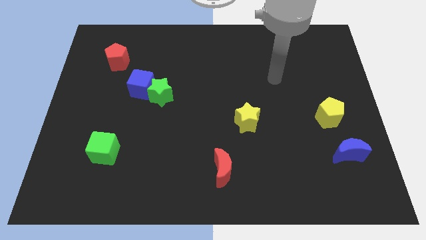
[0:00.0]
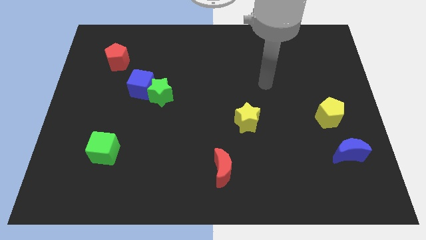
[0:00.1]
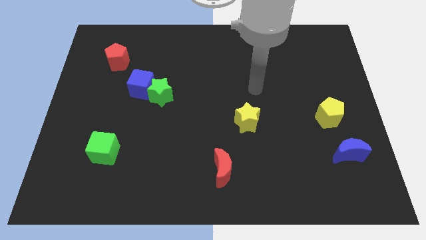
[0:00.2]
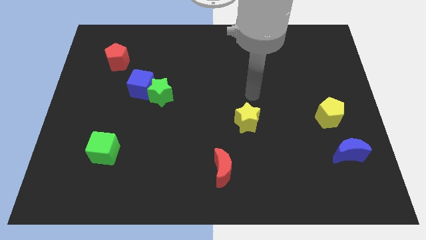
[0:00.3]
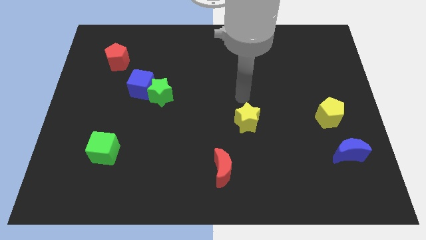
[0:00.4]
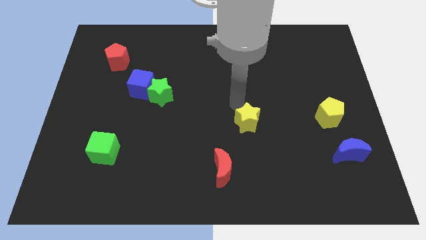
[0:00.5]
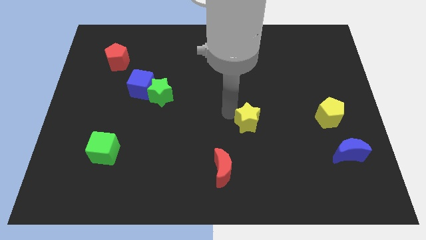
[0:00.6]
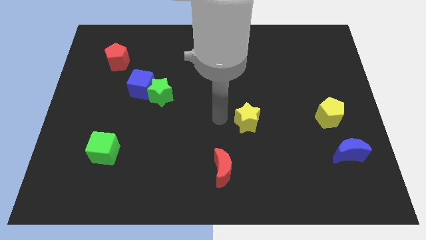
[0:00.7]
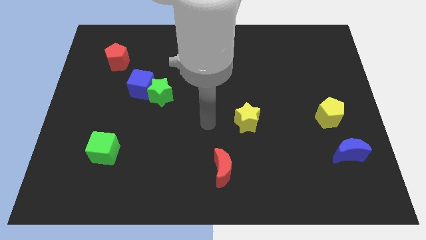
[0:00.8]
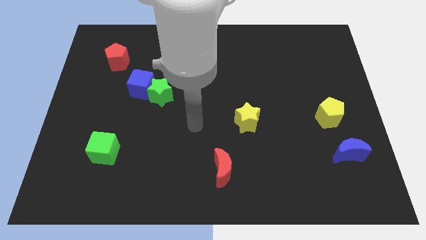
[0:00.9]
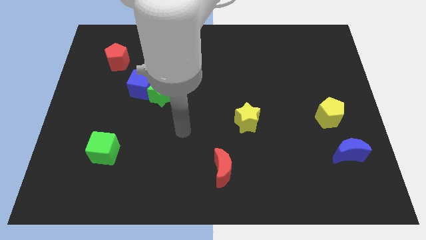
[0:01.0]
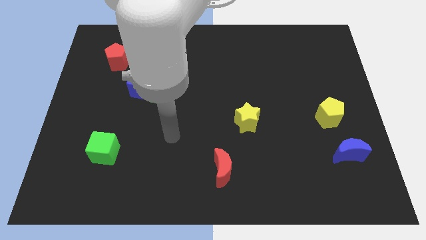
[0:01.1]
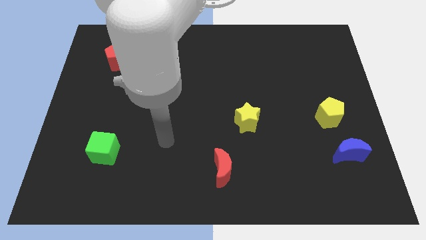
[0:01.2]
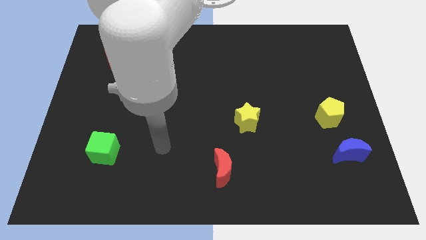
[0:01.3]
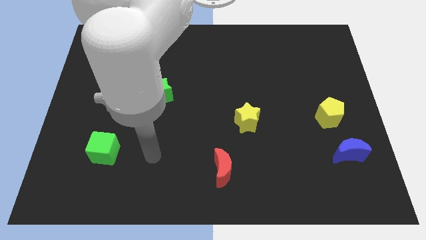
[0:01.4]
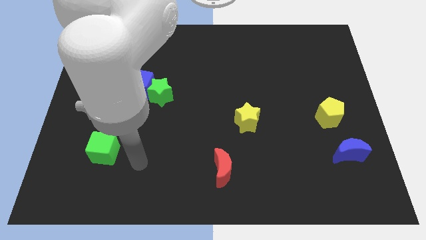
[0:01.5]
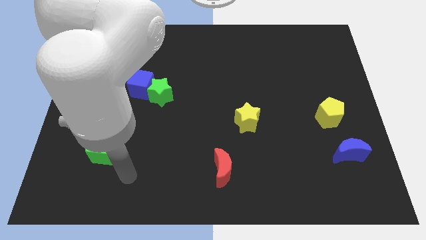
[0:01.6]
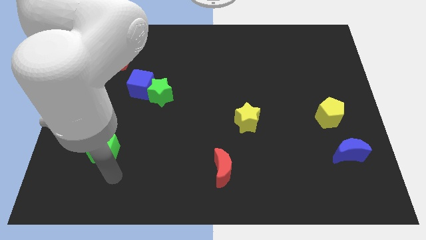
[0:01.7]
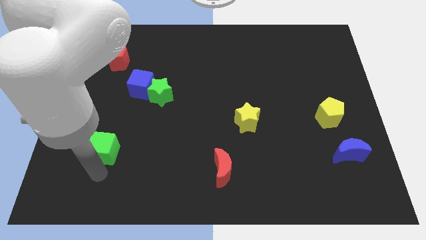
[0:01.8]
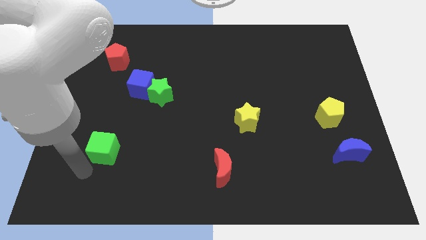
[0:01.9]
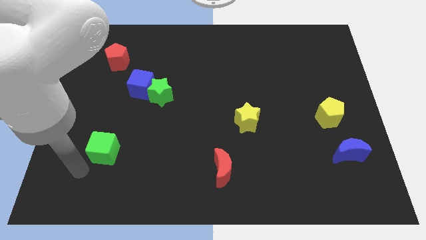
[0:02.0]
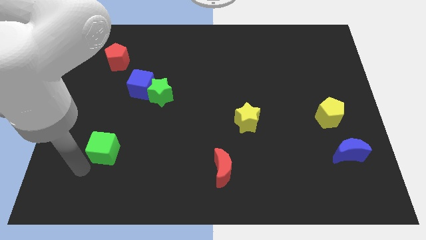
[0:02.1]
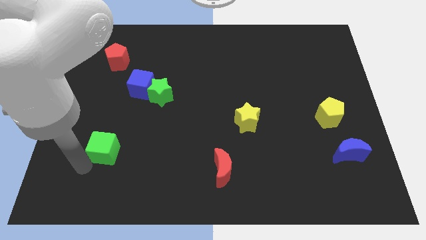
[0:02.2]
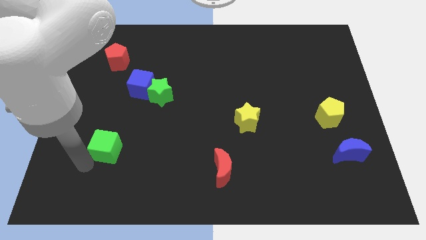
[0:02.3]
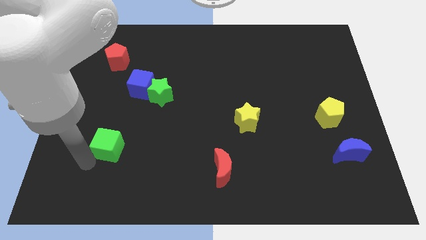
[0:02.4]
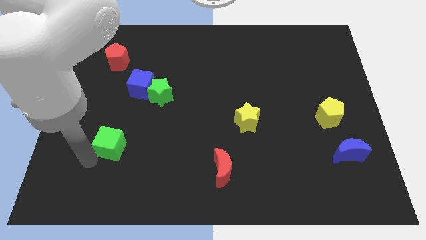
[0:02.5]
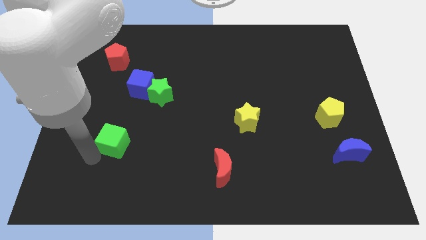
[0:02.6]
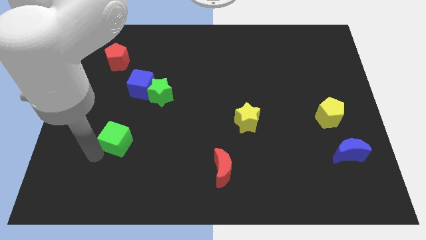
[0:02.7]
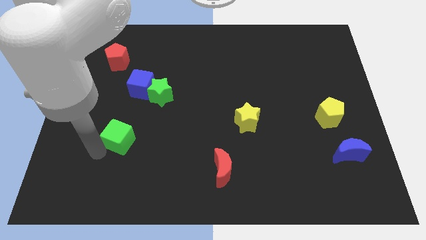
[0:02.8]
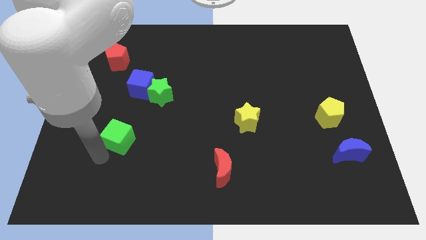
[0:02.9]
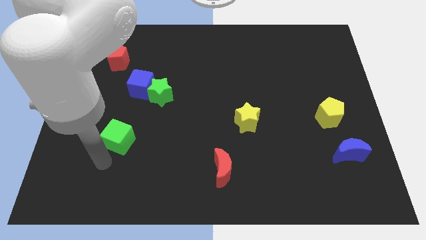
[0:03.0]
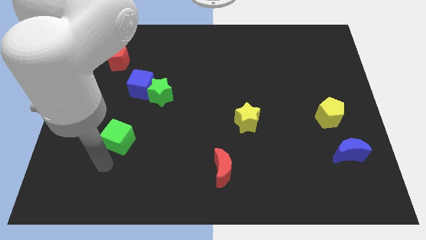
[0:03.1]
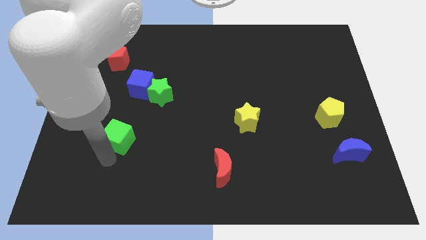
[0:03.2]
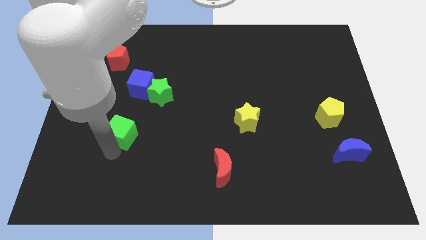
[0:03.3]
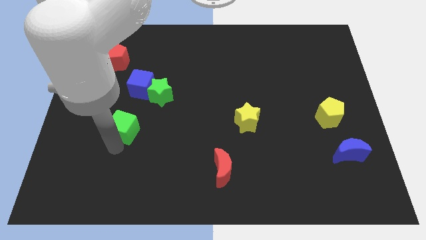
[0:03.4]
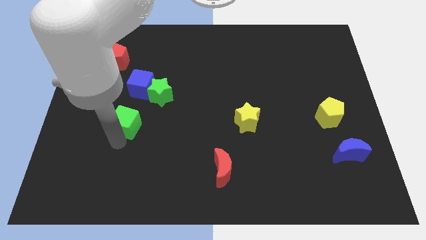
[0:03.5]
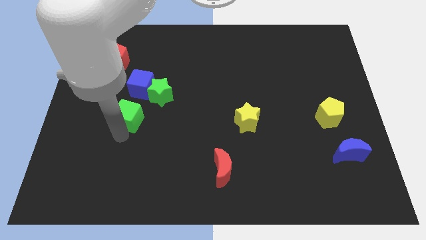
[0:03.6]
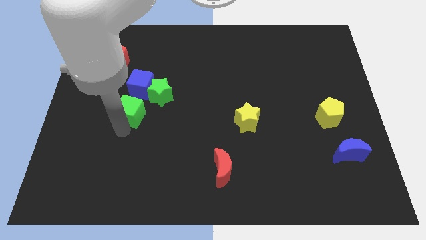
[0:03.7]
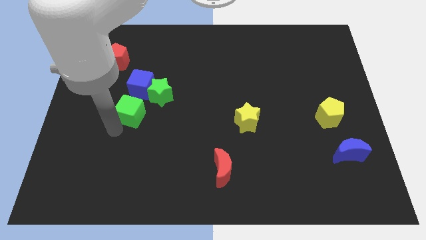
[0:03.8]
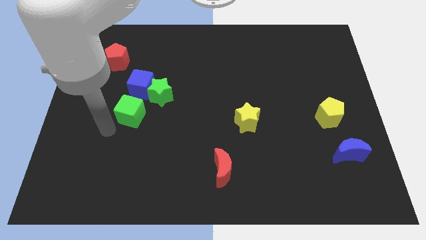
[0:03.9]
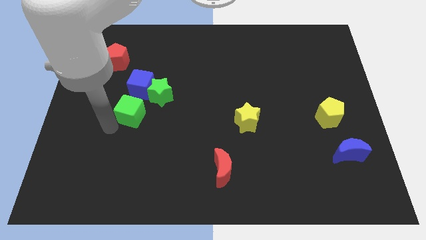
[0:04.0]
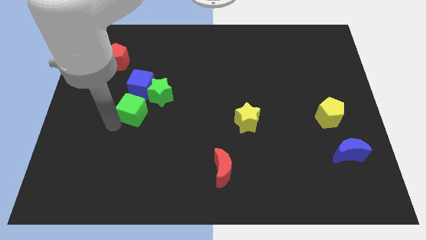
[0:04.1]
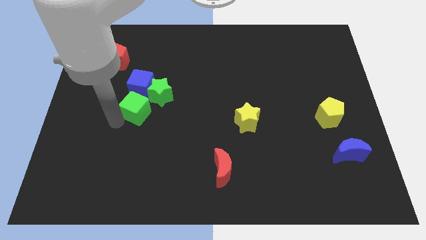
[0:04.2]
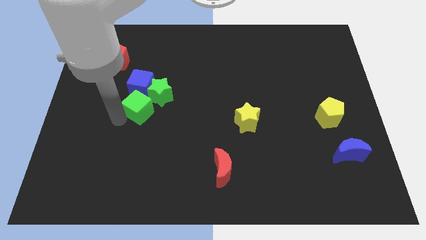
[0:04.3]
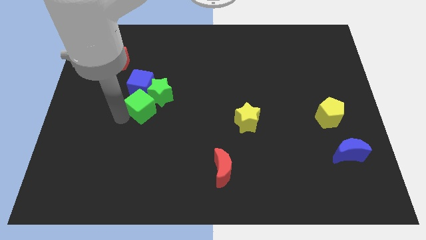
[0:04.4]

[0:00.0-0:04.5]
slide the green cube towards the green star

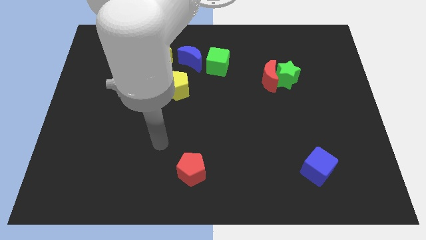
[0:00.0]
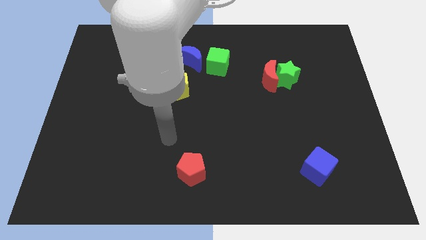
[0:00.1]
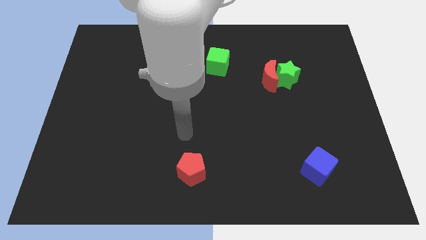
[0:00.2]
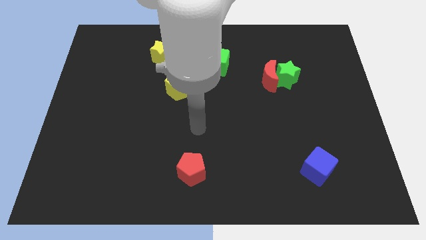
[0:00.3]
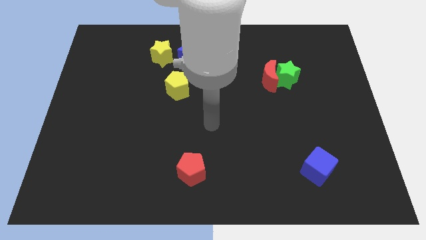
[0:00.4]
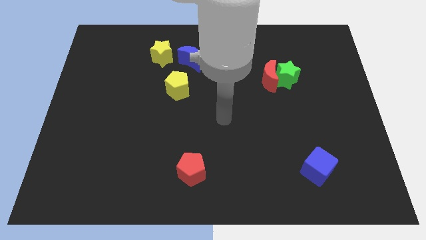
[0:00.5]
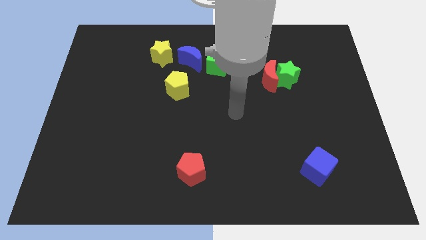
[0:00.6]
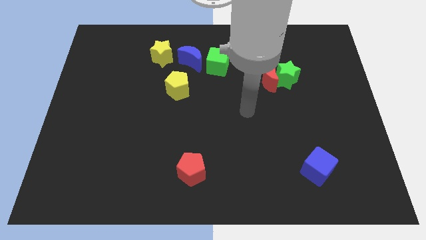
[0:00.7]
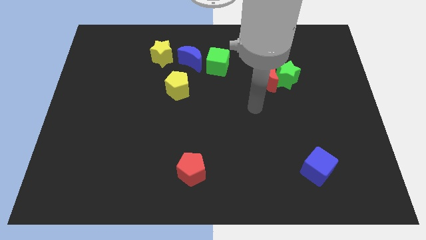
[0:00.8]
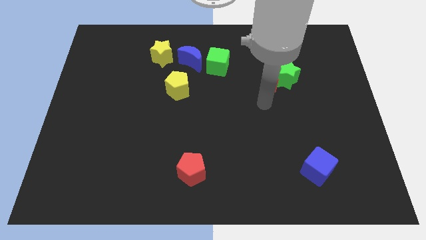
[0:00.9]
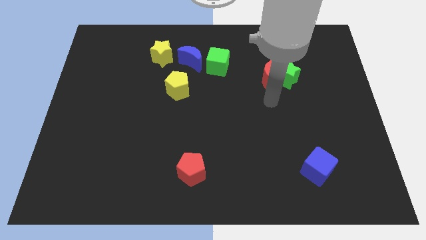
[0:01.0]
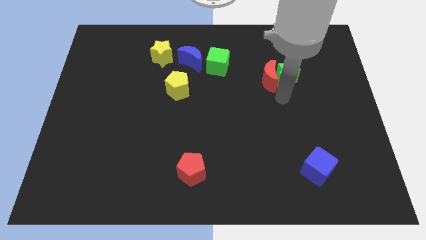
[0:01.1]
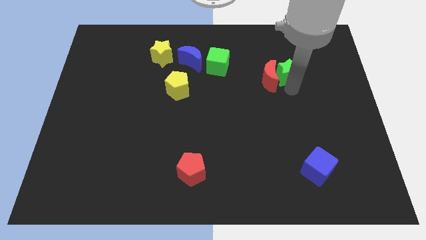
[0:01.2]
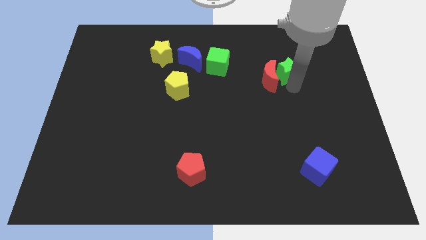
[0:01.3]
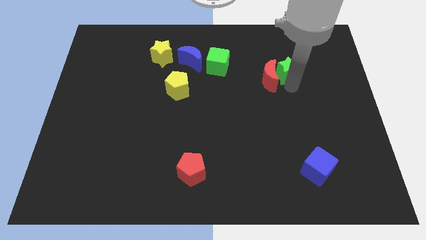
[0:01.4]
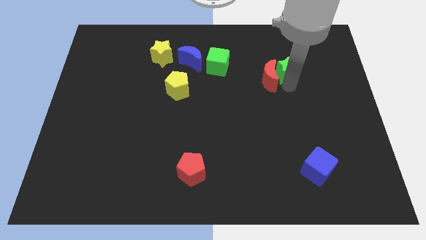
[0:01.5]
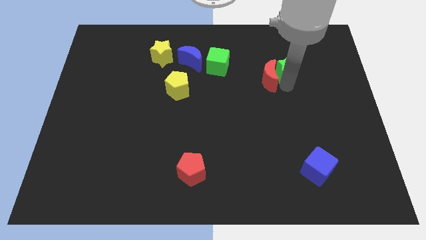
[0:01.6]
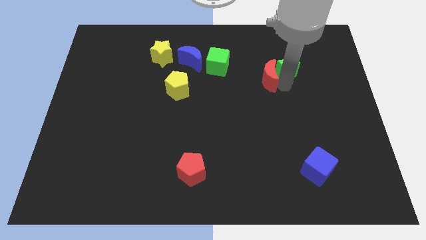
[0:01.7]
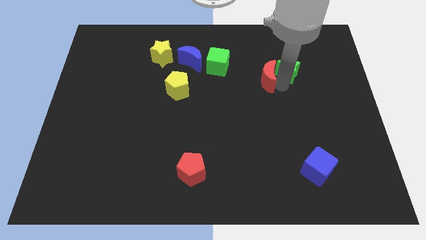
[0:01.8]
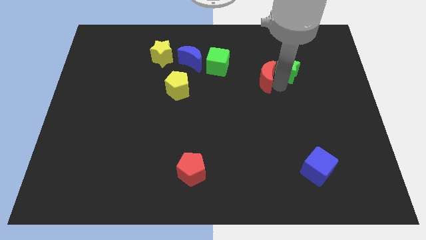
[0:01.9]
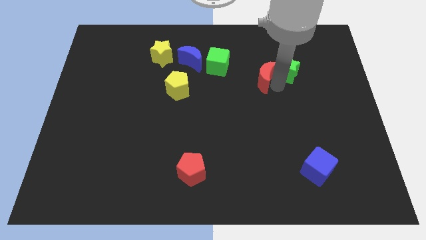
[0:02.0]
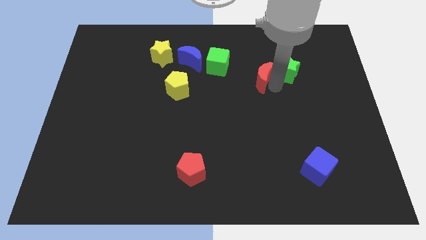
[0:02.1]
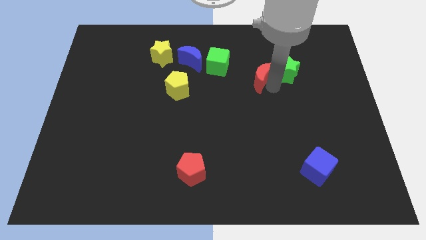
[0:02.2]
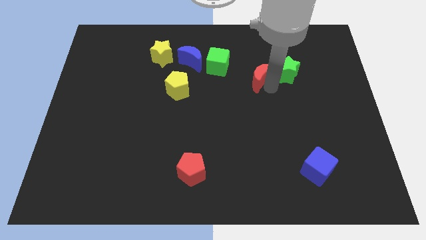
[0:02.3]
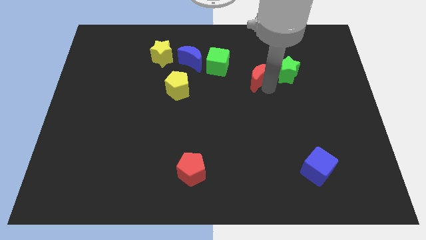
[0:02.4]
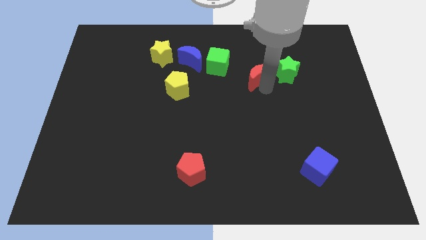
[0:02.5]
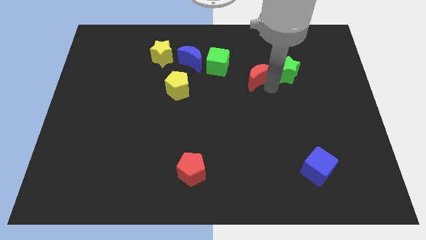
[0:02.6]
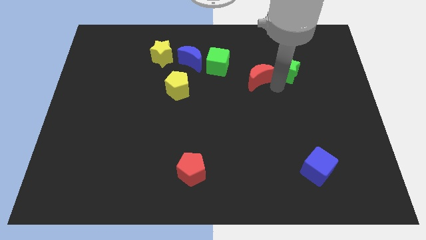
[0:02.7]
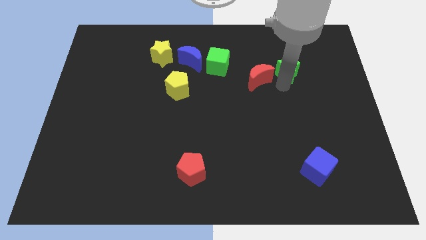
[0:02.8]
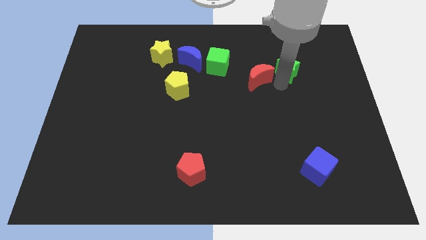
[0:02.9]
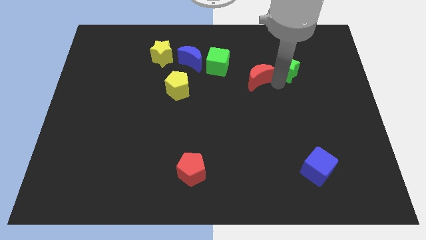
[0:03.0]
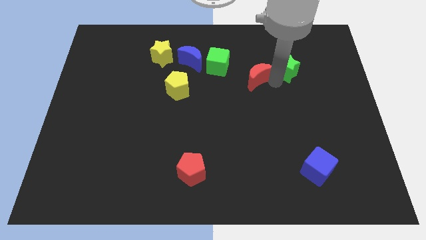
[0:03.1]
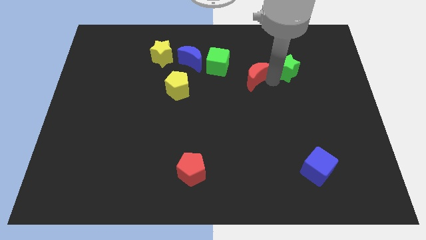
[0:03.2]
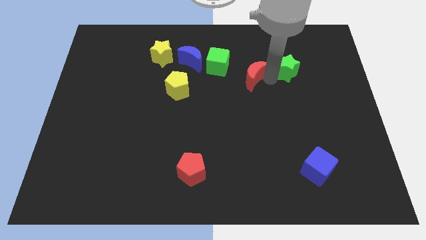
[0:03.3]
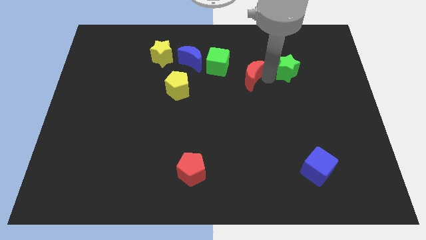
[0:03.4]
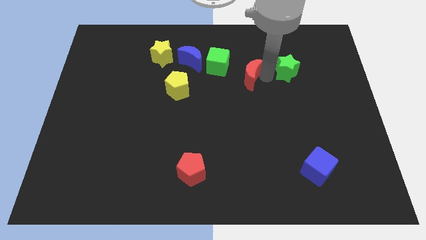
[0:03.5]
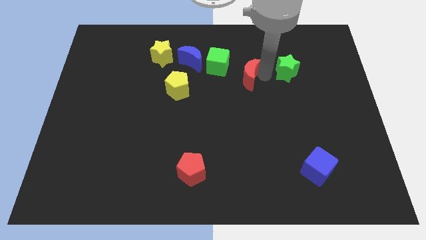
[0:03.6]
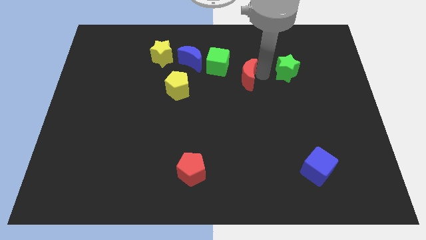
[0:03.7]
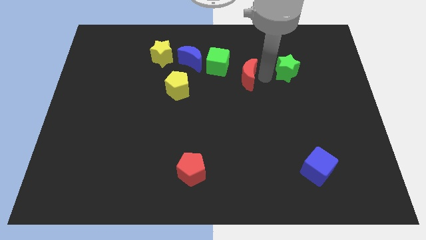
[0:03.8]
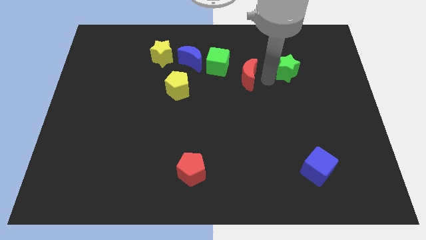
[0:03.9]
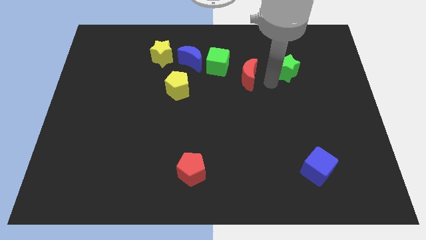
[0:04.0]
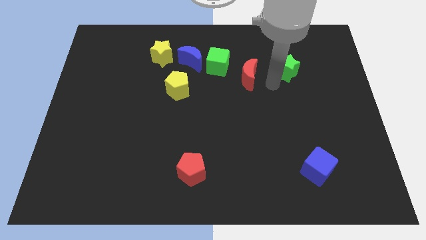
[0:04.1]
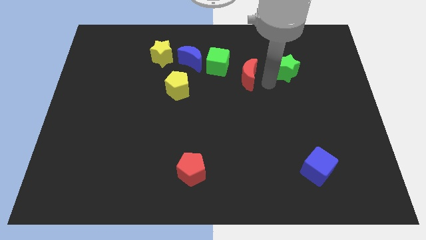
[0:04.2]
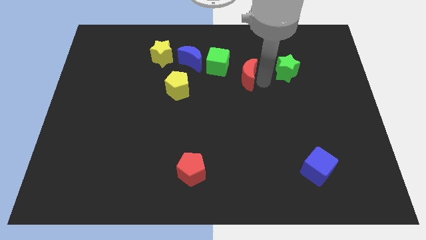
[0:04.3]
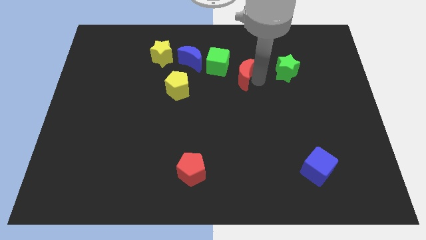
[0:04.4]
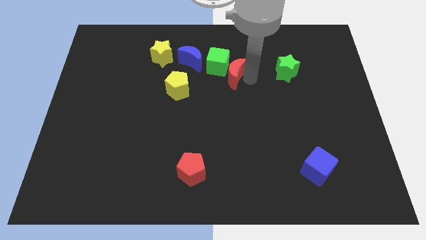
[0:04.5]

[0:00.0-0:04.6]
slide the red moon to the green cube
